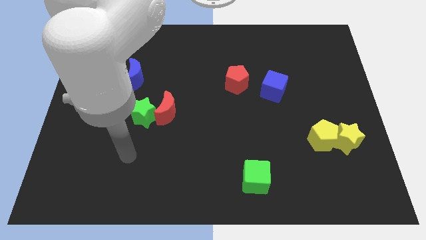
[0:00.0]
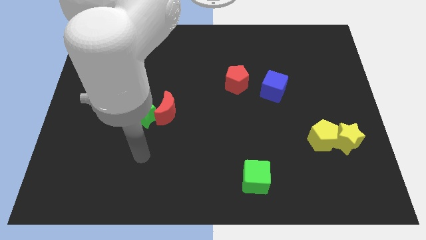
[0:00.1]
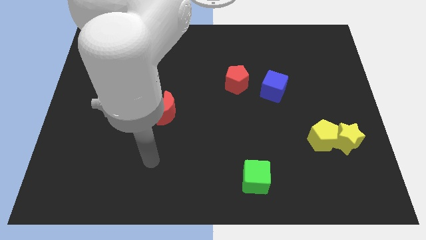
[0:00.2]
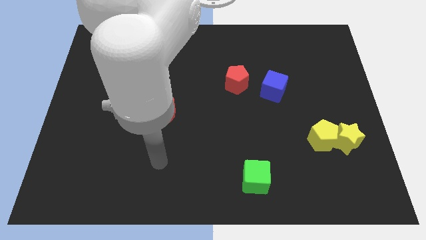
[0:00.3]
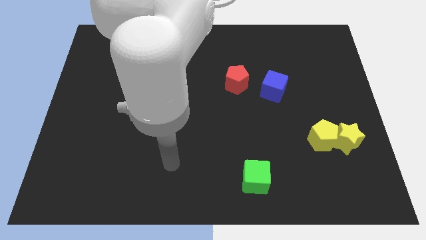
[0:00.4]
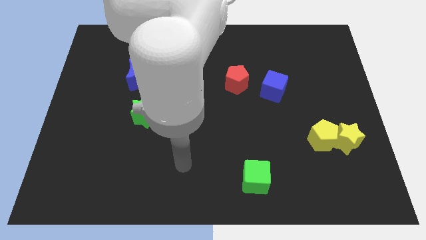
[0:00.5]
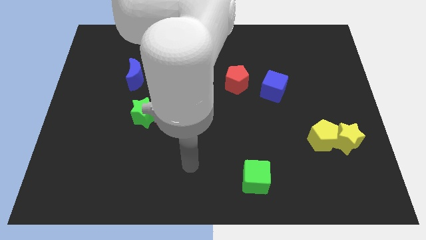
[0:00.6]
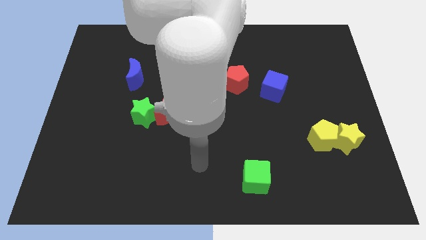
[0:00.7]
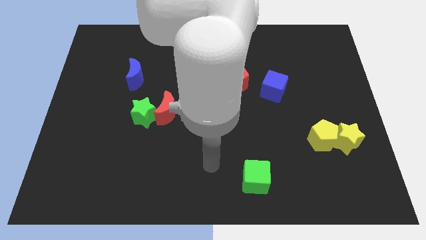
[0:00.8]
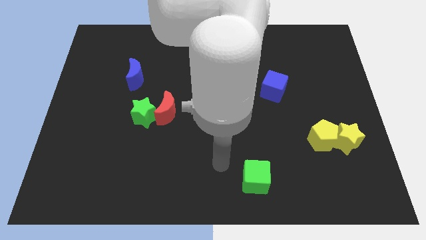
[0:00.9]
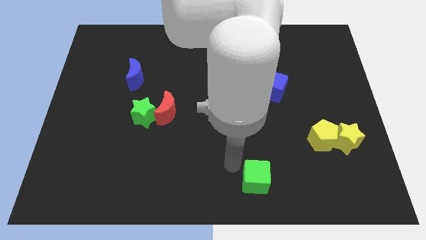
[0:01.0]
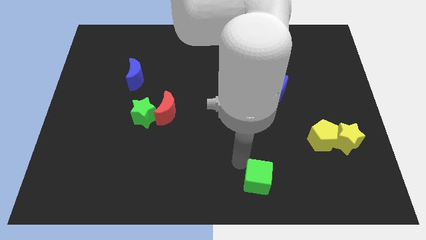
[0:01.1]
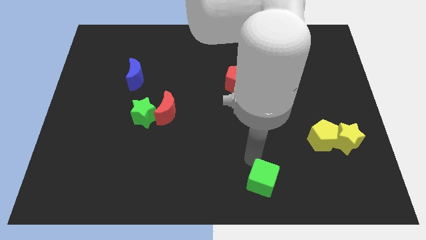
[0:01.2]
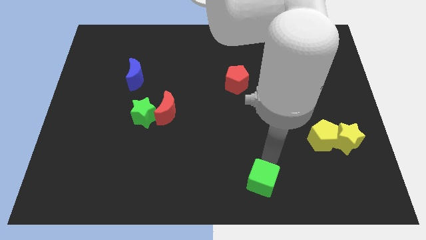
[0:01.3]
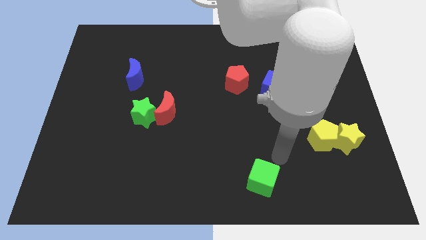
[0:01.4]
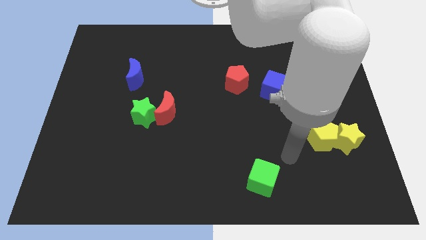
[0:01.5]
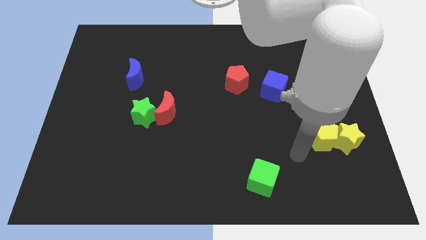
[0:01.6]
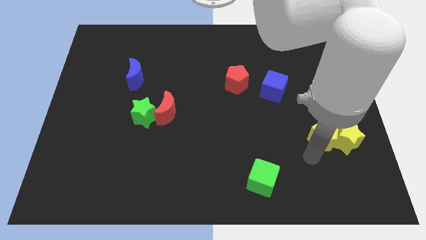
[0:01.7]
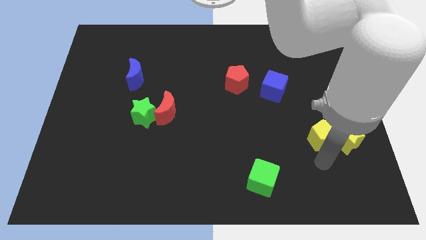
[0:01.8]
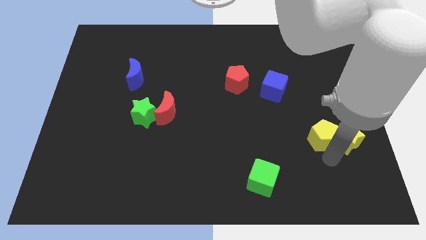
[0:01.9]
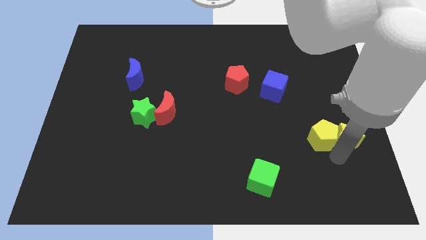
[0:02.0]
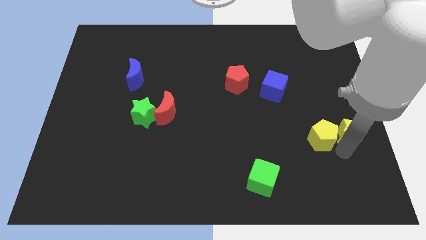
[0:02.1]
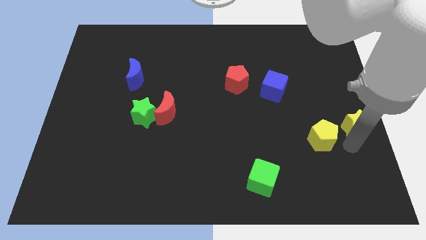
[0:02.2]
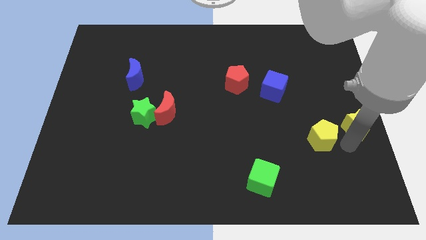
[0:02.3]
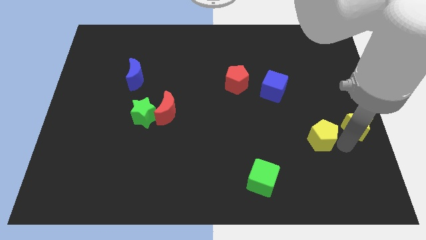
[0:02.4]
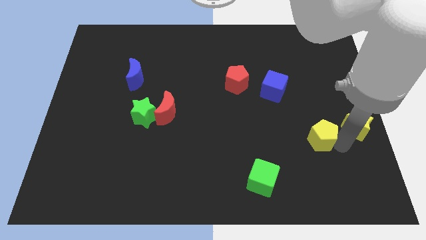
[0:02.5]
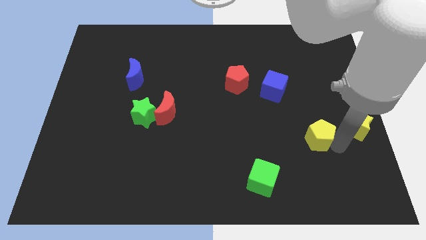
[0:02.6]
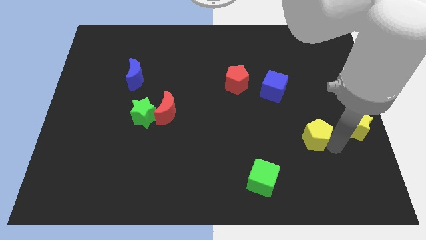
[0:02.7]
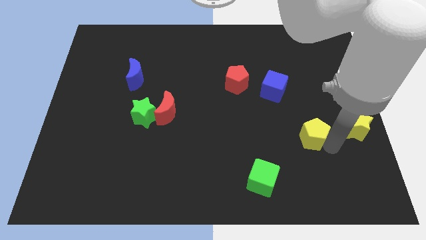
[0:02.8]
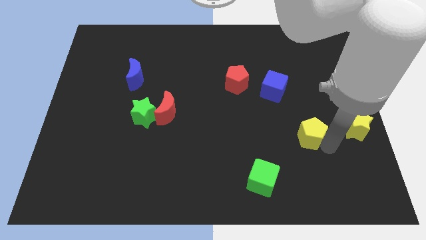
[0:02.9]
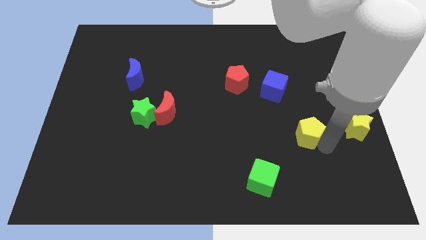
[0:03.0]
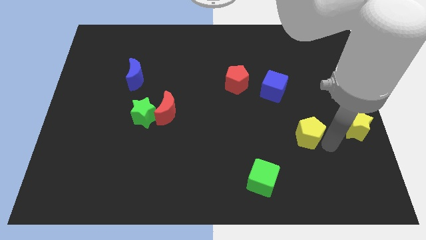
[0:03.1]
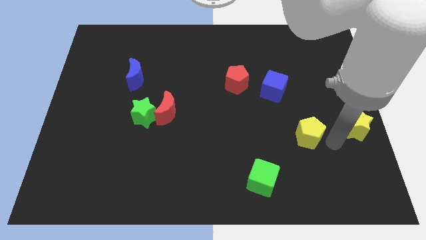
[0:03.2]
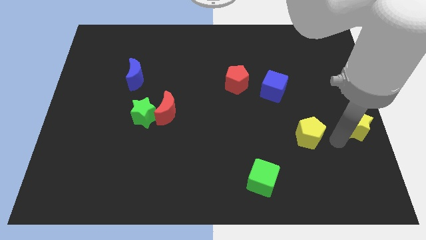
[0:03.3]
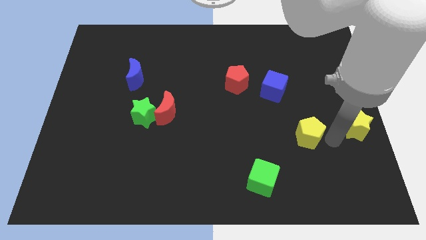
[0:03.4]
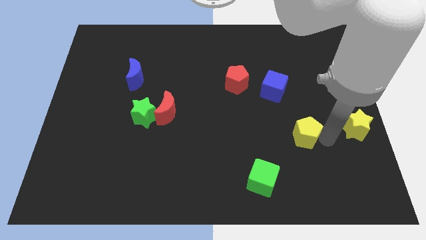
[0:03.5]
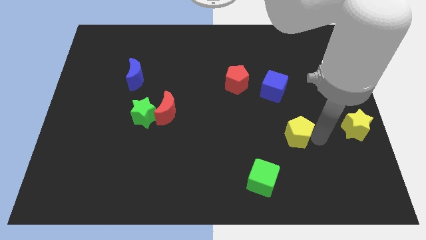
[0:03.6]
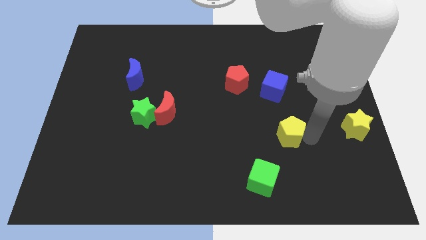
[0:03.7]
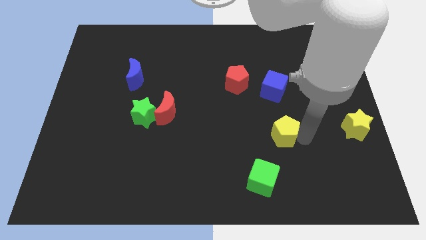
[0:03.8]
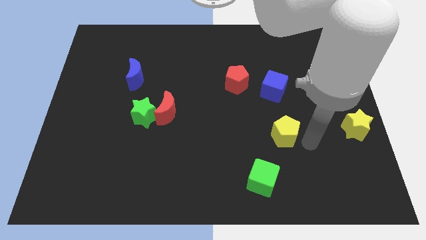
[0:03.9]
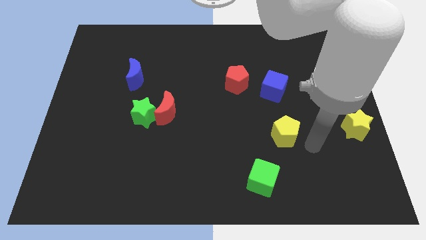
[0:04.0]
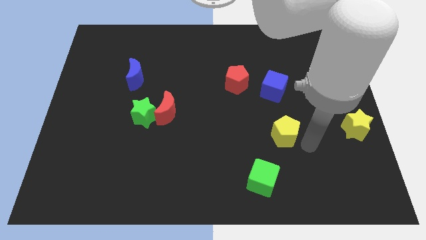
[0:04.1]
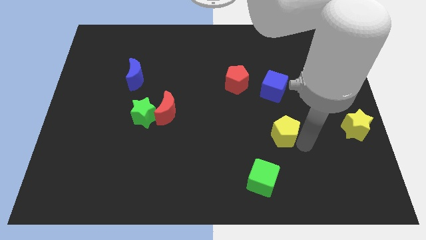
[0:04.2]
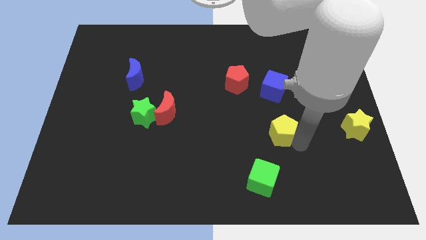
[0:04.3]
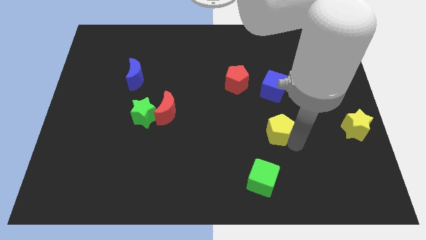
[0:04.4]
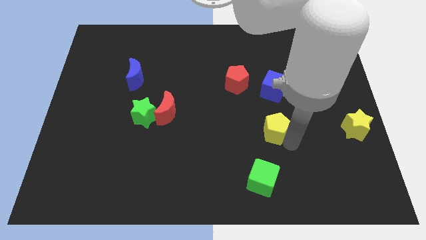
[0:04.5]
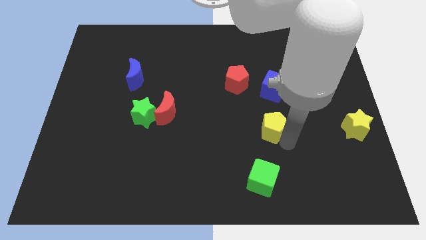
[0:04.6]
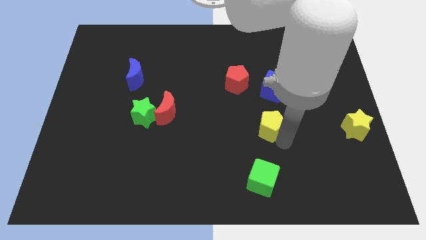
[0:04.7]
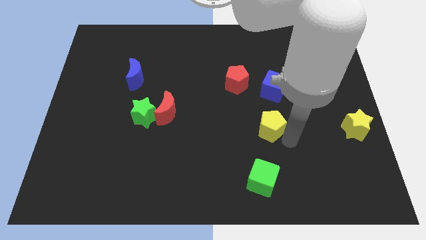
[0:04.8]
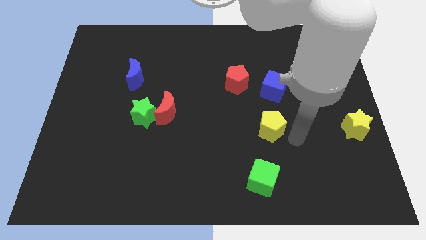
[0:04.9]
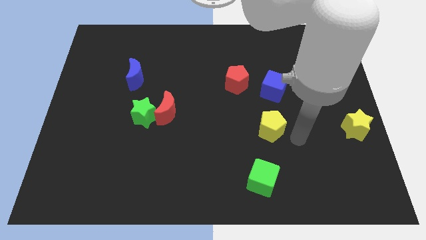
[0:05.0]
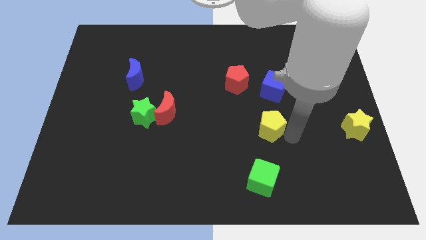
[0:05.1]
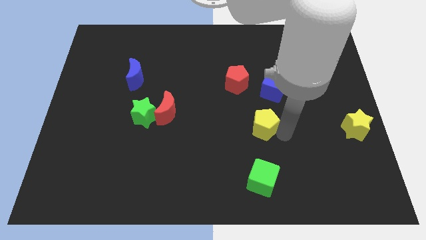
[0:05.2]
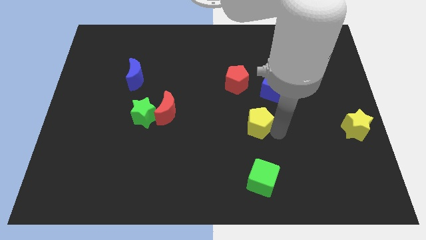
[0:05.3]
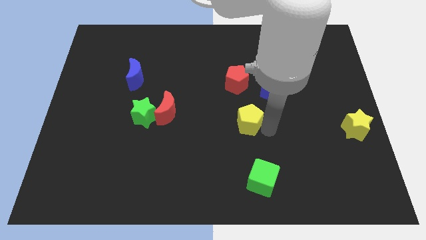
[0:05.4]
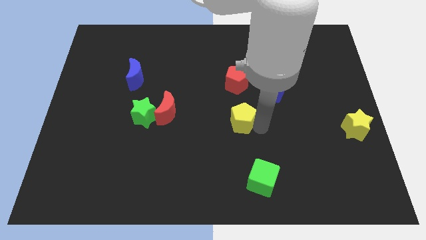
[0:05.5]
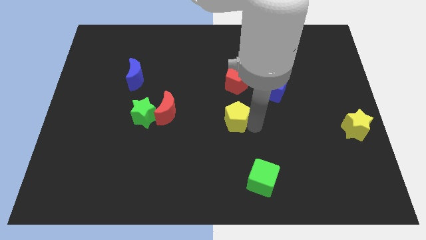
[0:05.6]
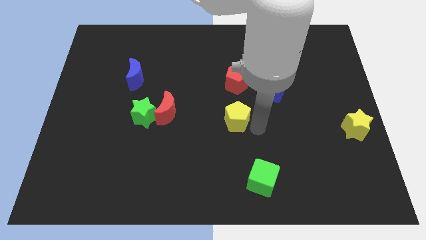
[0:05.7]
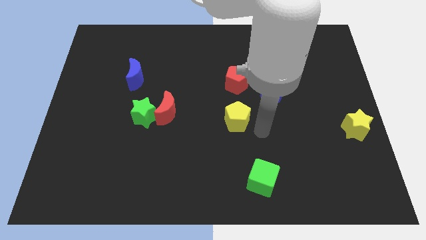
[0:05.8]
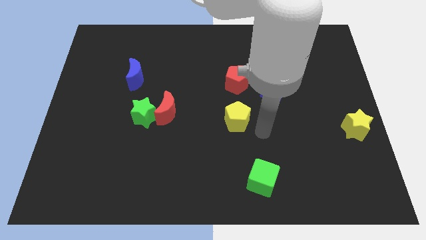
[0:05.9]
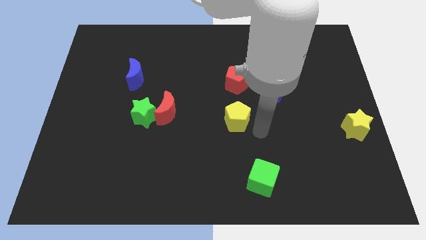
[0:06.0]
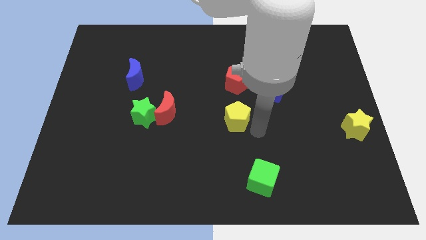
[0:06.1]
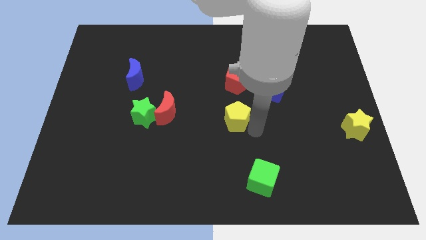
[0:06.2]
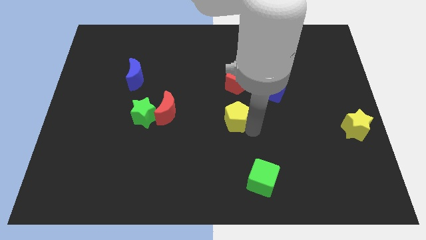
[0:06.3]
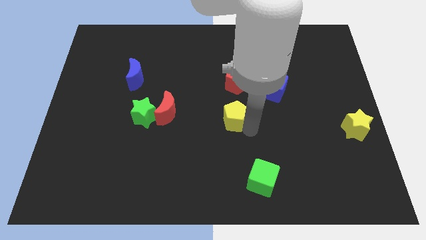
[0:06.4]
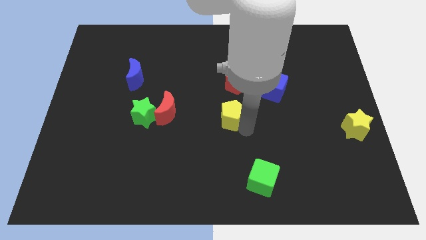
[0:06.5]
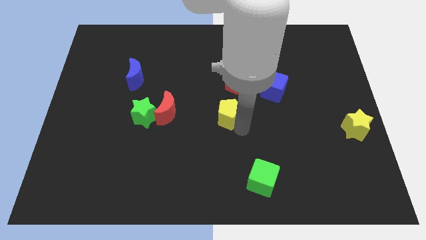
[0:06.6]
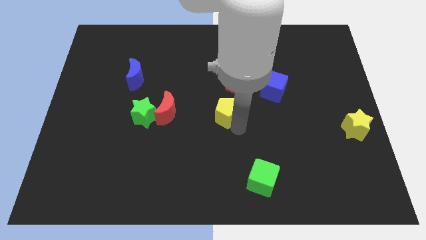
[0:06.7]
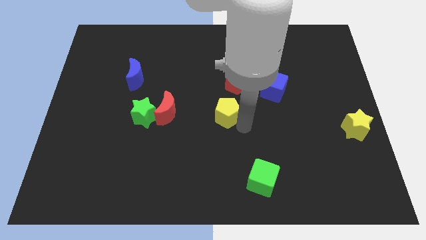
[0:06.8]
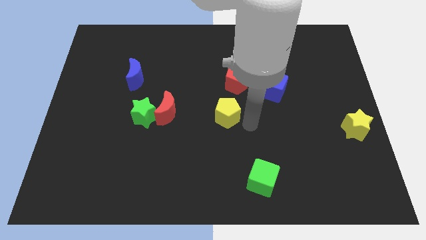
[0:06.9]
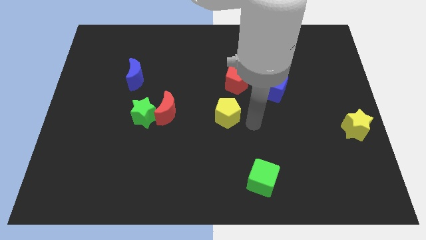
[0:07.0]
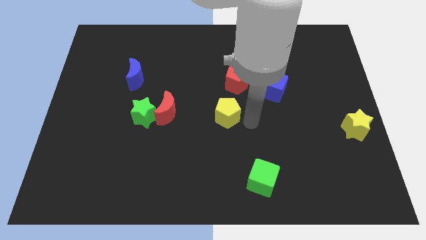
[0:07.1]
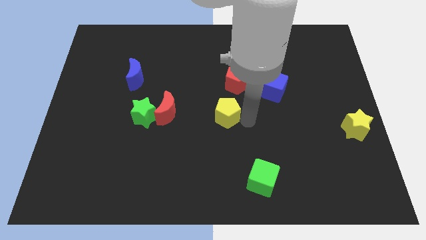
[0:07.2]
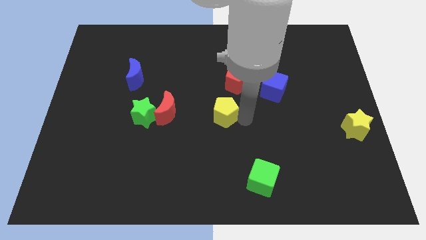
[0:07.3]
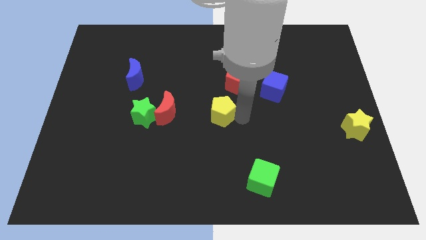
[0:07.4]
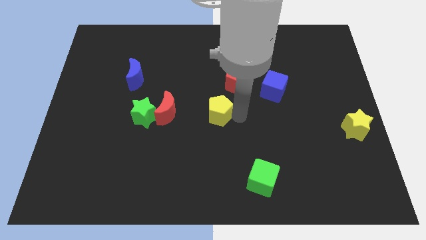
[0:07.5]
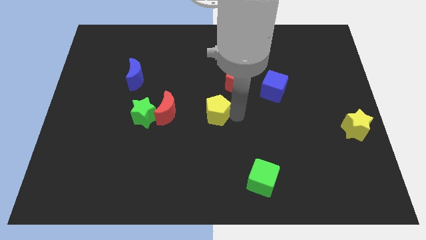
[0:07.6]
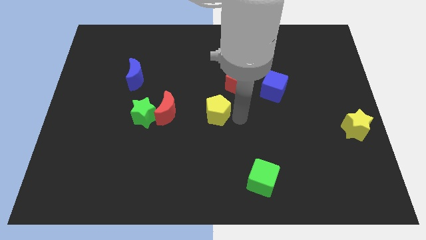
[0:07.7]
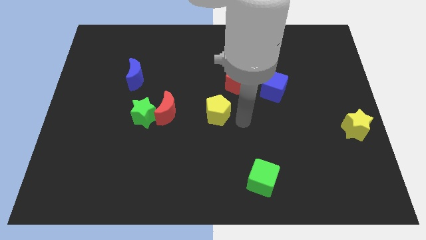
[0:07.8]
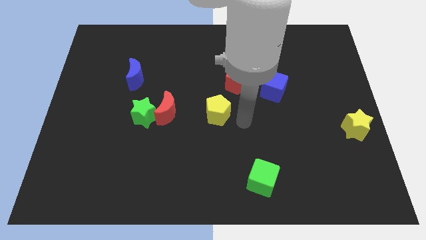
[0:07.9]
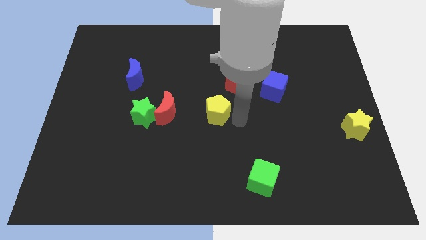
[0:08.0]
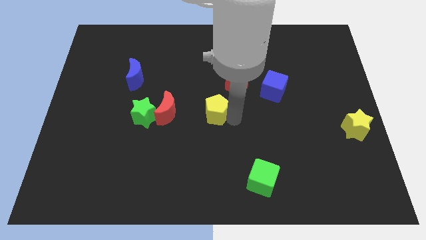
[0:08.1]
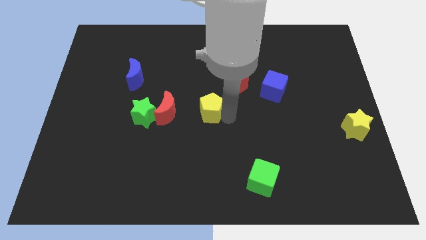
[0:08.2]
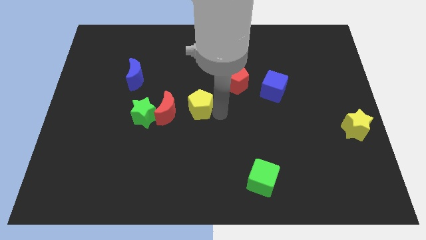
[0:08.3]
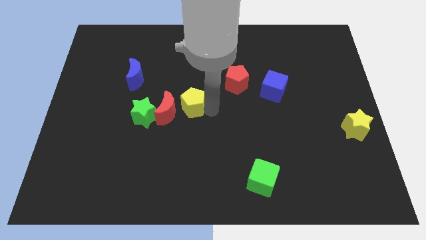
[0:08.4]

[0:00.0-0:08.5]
move the yellow pentagon next to the red moon
